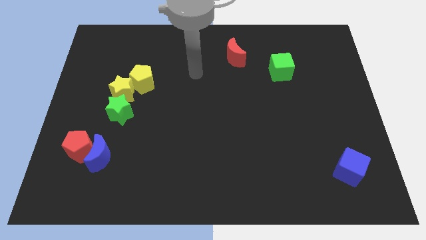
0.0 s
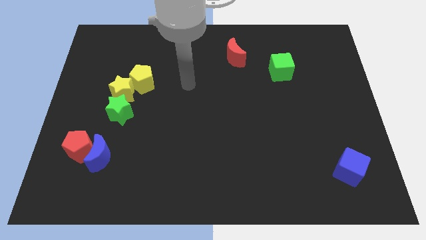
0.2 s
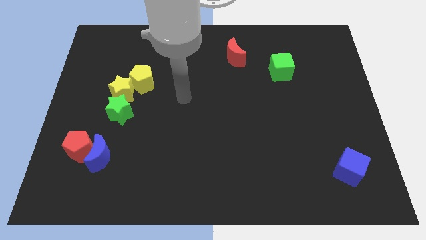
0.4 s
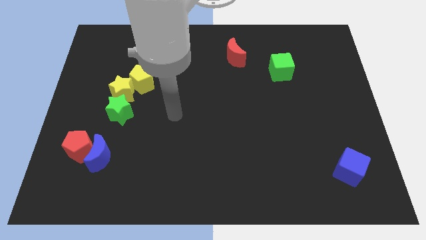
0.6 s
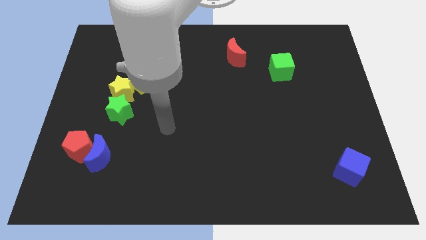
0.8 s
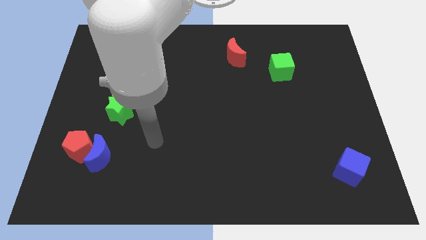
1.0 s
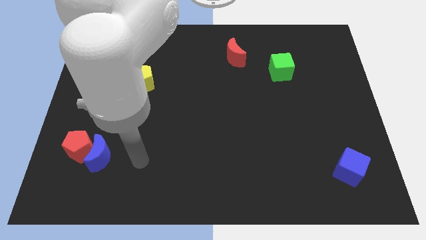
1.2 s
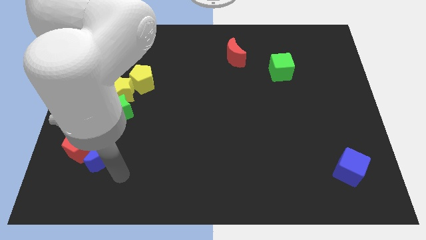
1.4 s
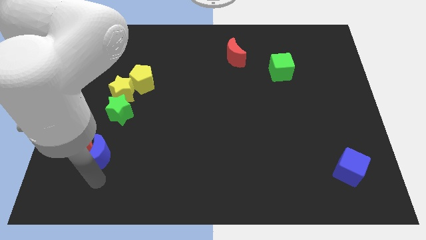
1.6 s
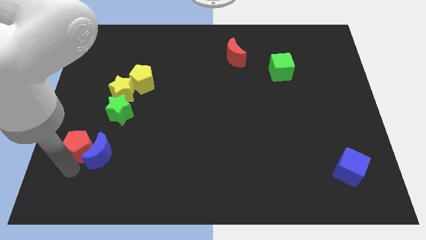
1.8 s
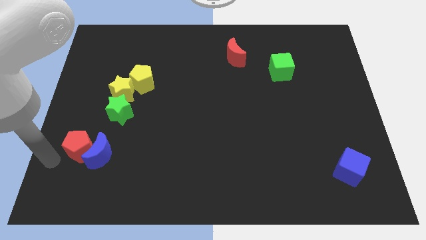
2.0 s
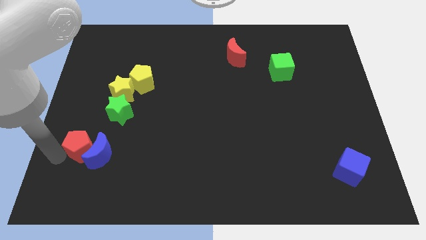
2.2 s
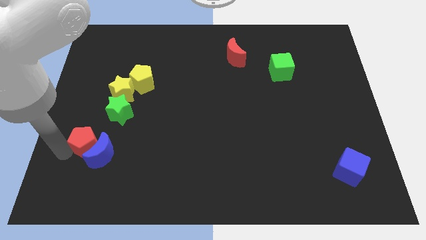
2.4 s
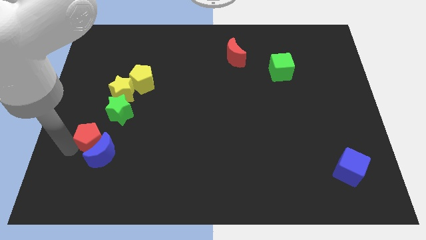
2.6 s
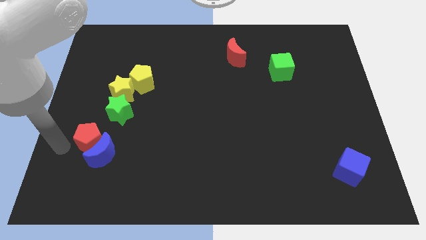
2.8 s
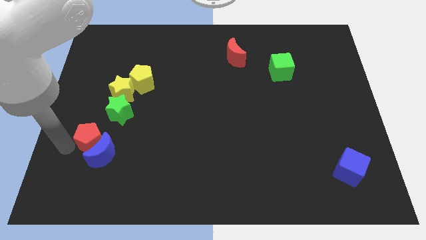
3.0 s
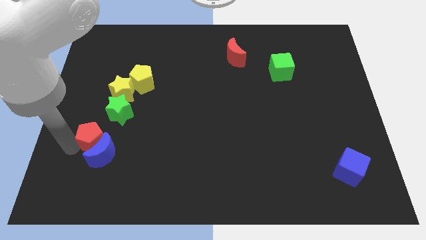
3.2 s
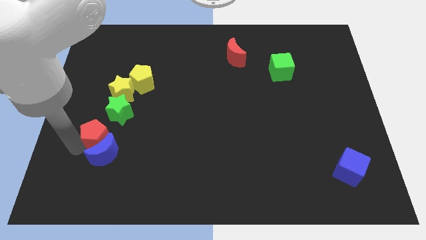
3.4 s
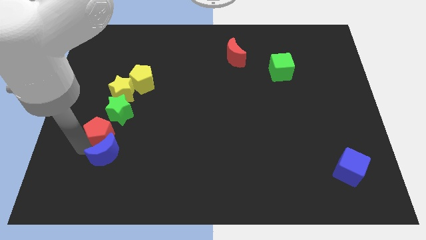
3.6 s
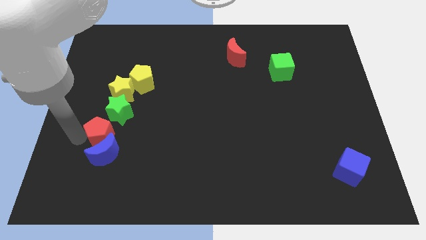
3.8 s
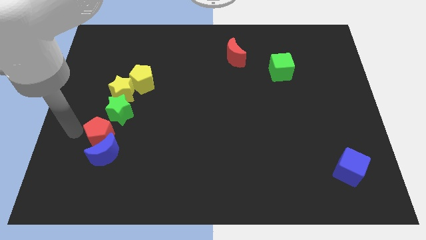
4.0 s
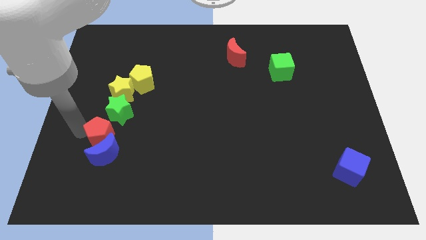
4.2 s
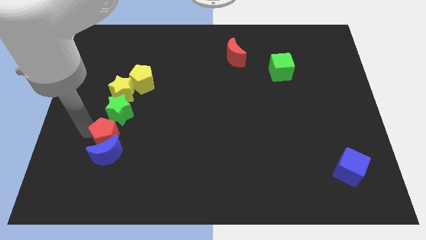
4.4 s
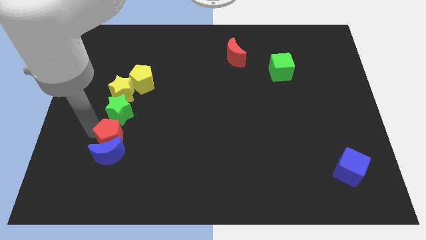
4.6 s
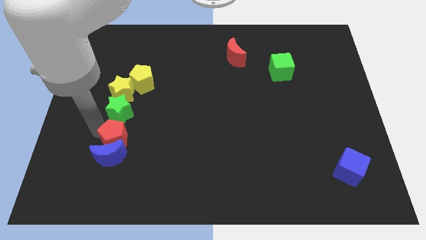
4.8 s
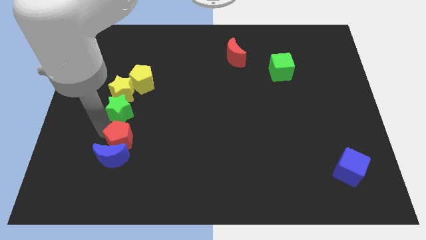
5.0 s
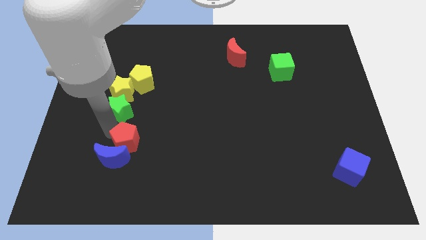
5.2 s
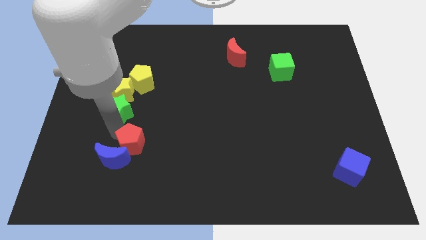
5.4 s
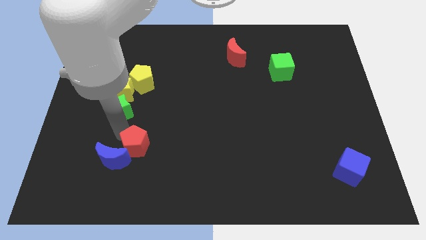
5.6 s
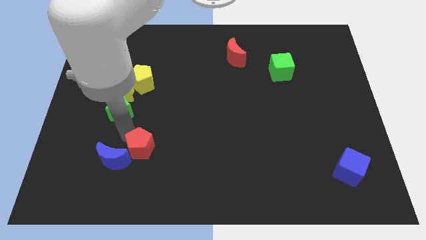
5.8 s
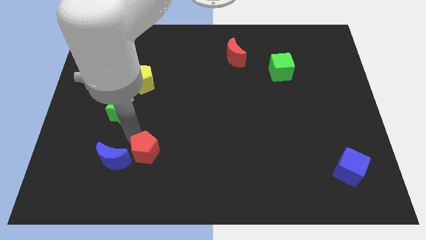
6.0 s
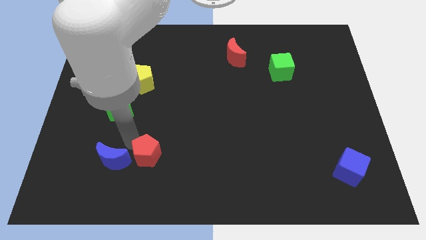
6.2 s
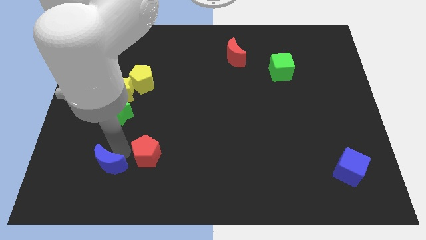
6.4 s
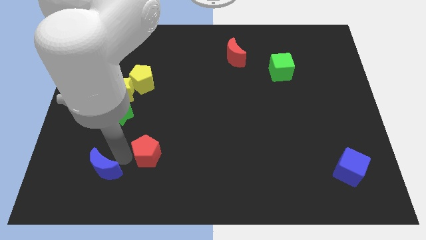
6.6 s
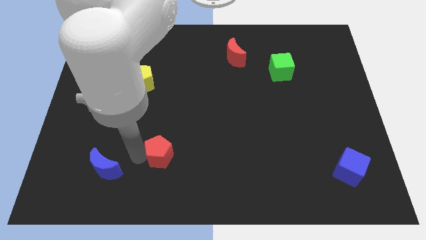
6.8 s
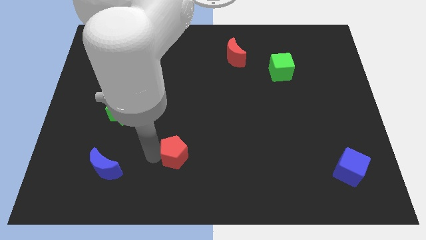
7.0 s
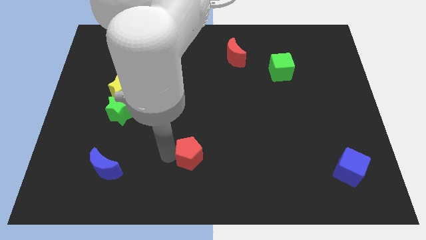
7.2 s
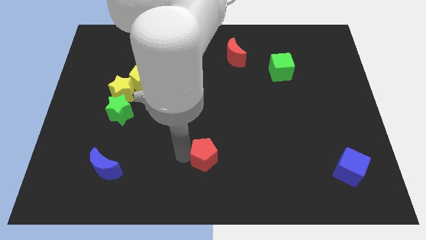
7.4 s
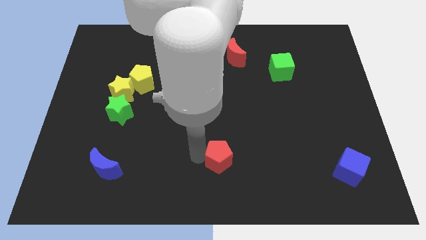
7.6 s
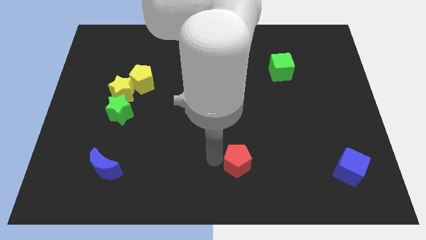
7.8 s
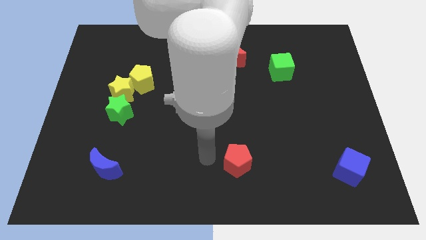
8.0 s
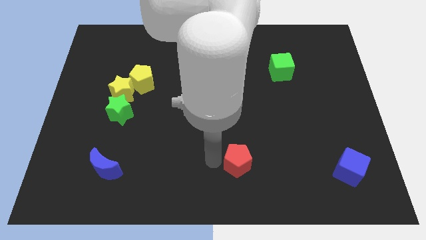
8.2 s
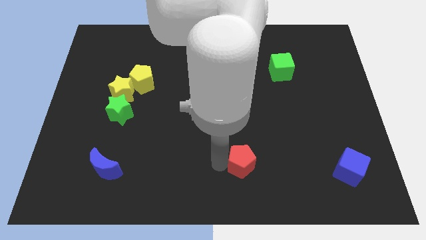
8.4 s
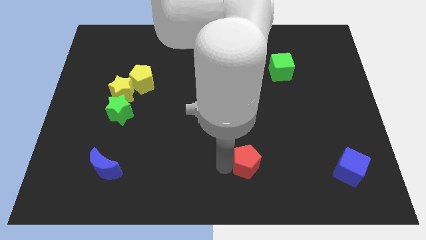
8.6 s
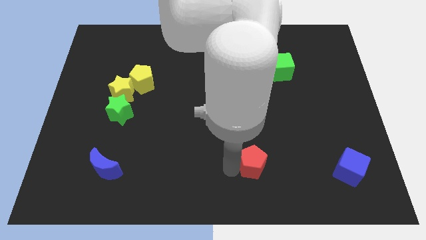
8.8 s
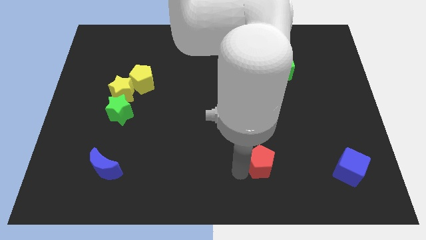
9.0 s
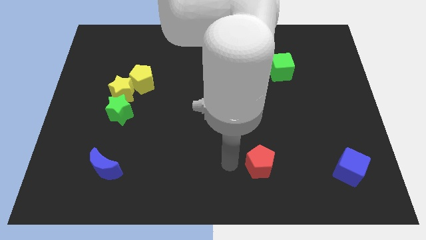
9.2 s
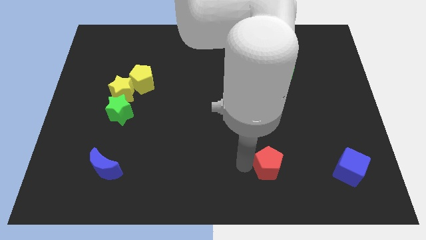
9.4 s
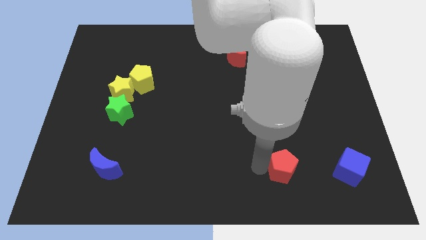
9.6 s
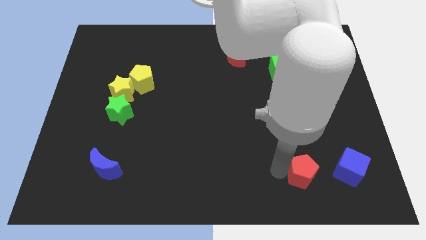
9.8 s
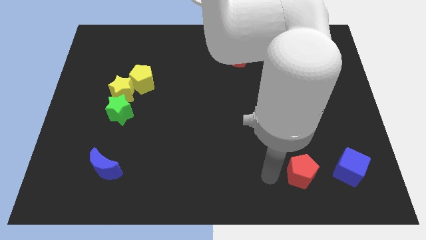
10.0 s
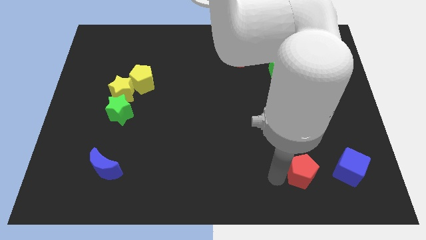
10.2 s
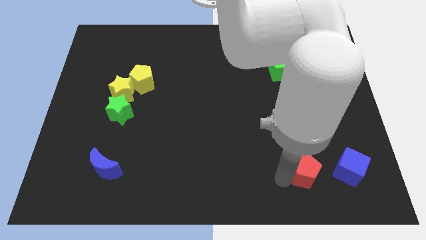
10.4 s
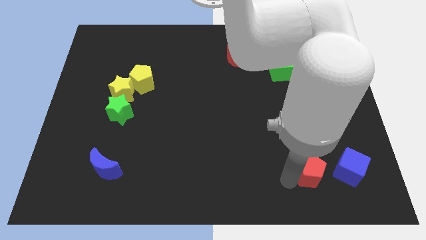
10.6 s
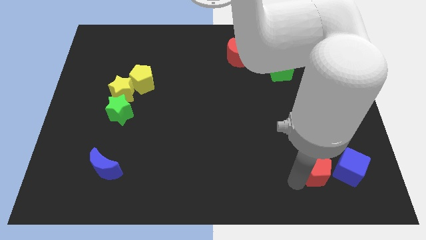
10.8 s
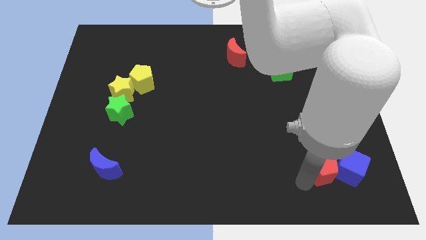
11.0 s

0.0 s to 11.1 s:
slide the red pentagon next to the blue cube

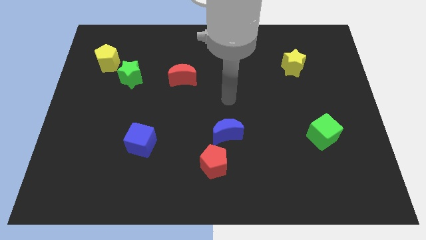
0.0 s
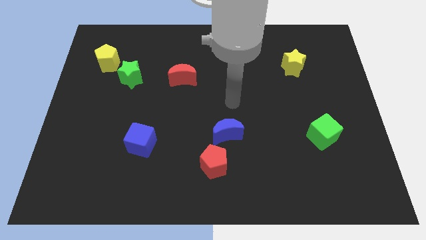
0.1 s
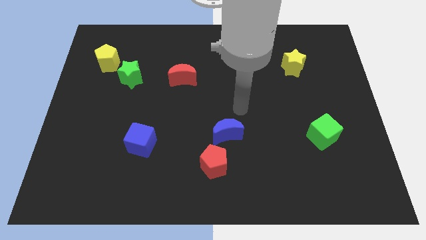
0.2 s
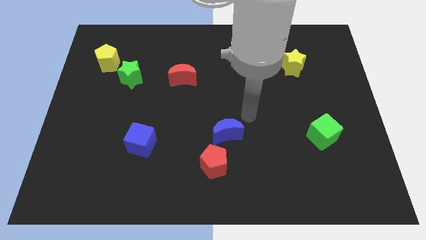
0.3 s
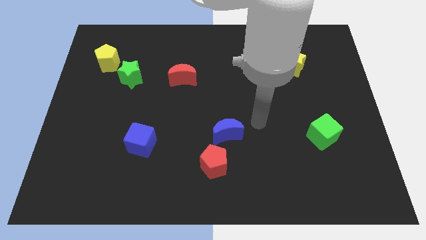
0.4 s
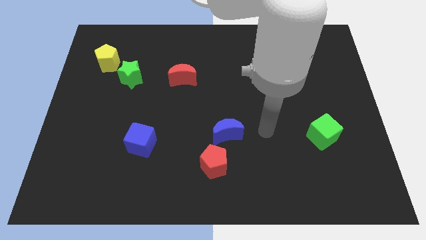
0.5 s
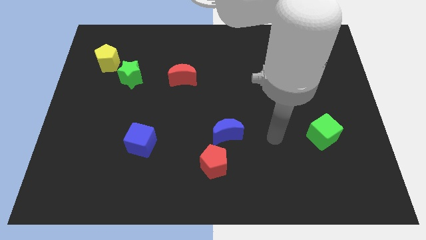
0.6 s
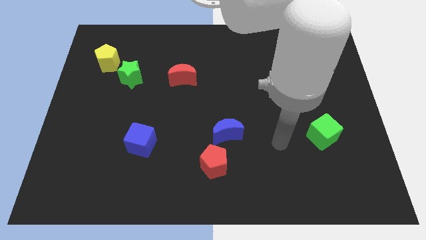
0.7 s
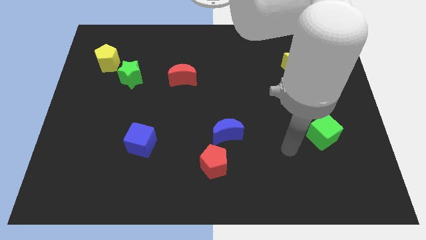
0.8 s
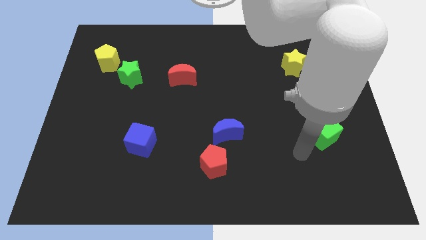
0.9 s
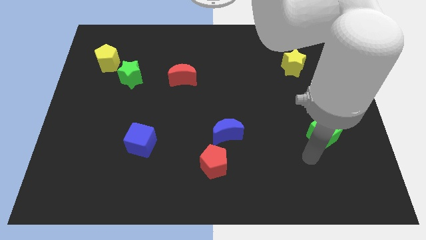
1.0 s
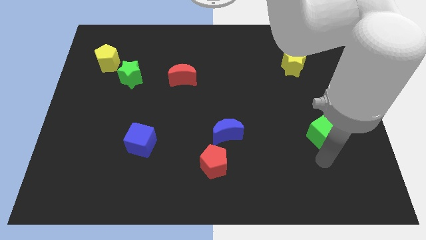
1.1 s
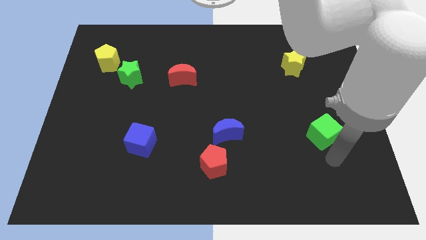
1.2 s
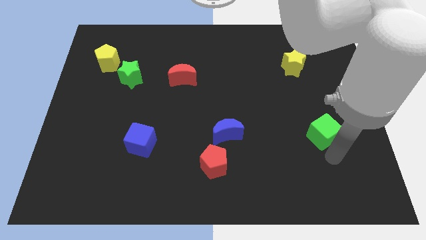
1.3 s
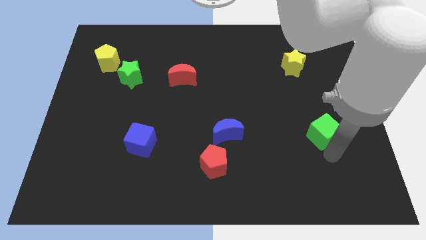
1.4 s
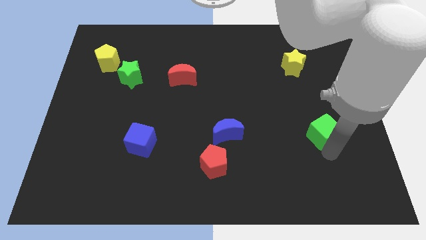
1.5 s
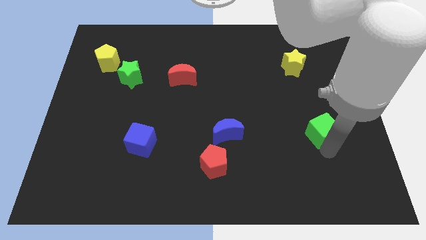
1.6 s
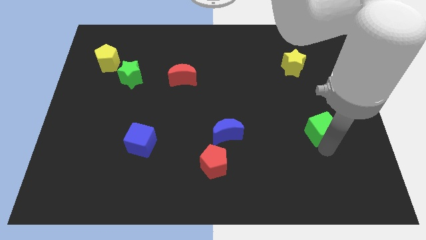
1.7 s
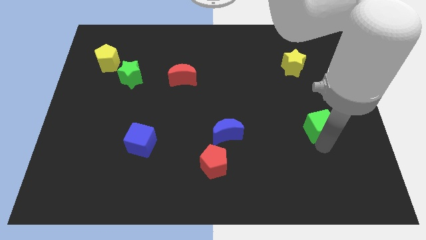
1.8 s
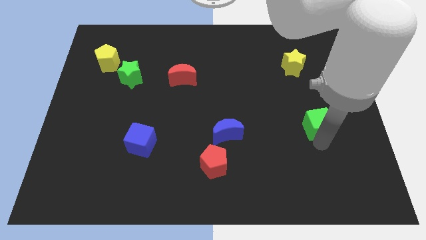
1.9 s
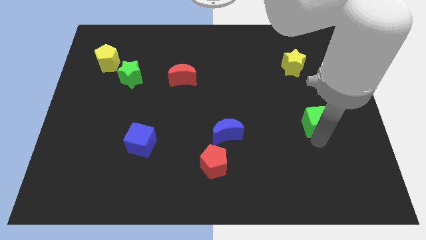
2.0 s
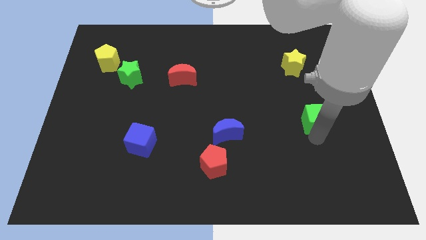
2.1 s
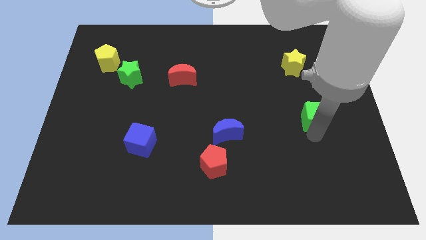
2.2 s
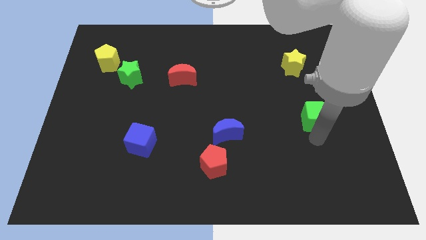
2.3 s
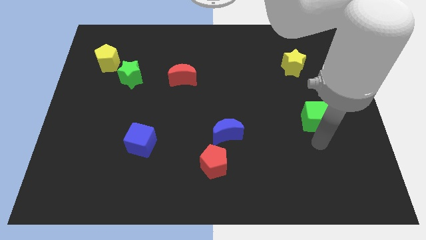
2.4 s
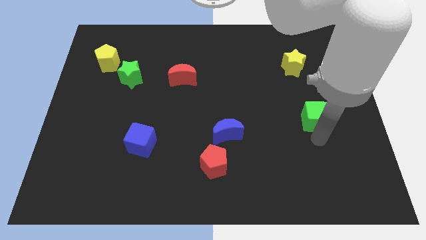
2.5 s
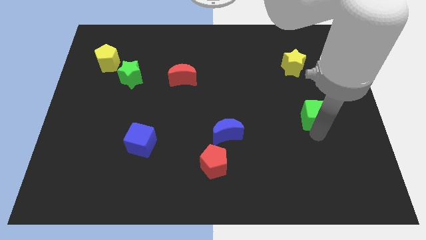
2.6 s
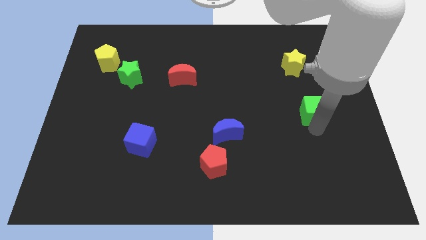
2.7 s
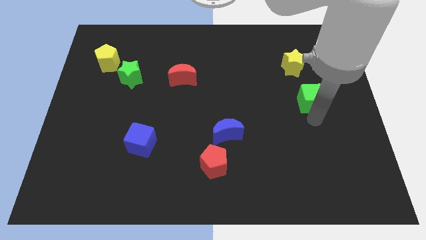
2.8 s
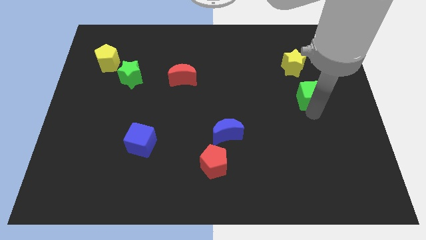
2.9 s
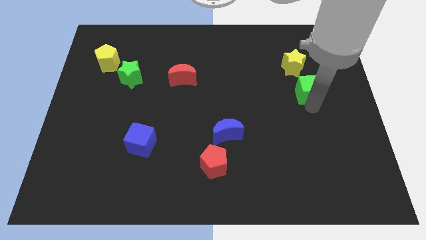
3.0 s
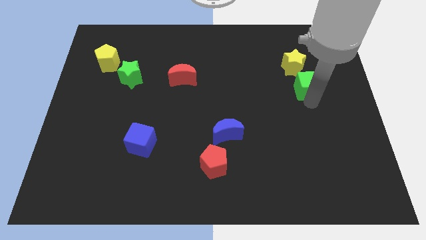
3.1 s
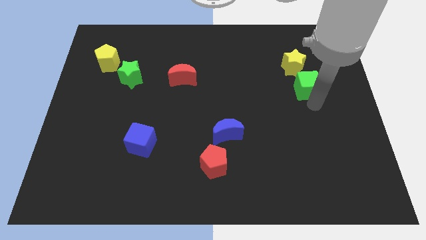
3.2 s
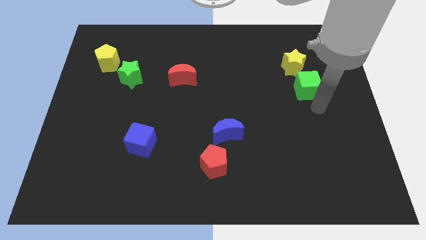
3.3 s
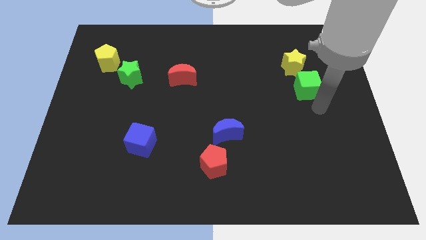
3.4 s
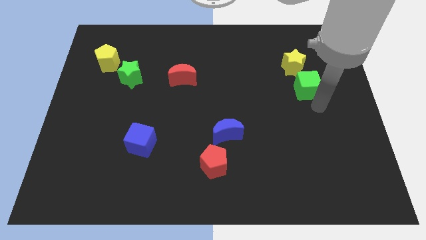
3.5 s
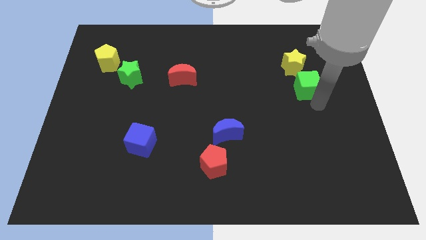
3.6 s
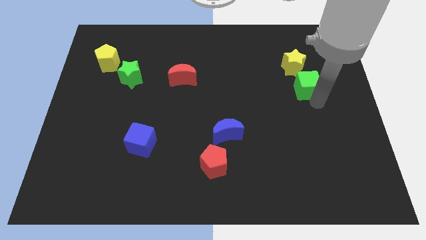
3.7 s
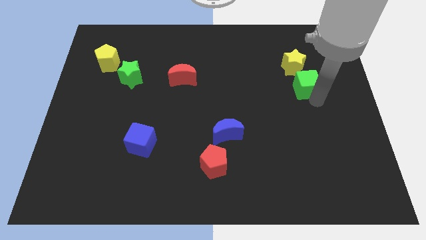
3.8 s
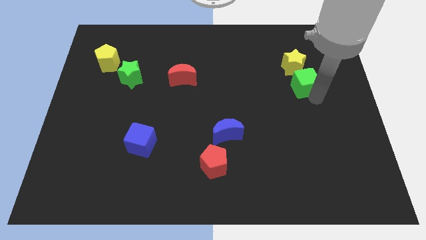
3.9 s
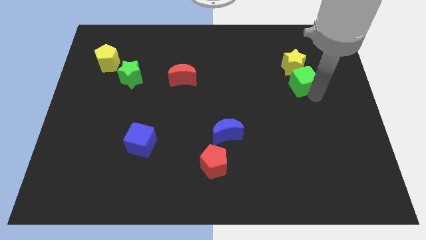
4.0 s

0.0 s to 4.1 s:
put the green cube towards the yellow star
